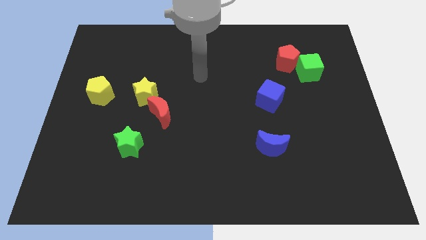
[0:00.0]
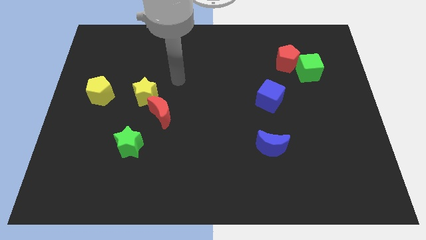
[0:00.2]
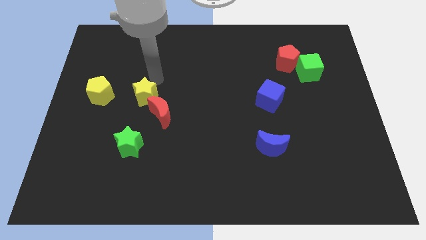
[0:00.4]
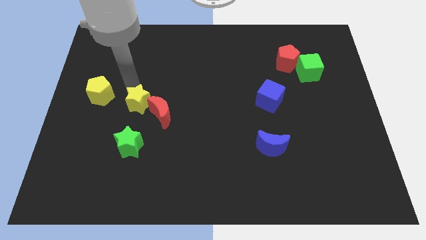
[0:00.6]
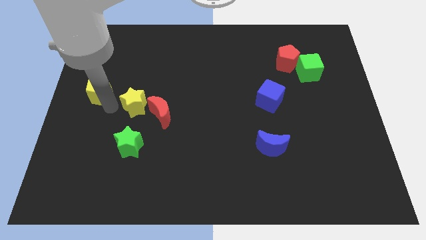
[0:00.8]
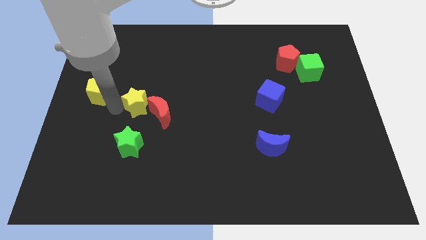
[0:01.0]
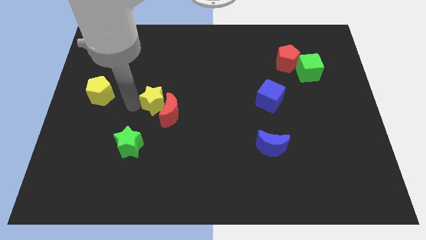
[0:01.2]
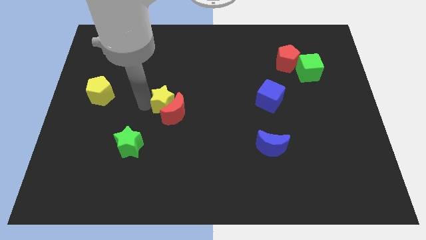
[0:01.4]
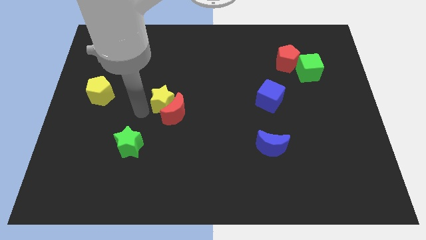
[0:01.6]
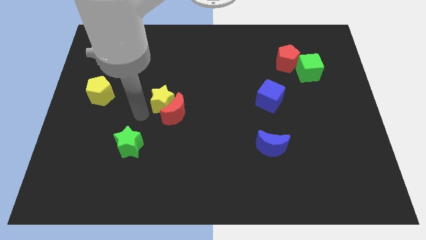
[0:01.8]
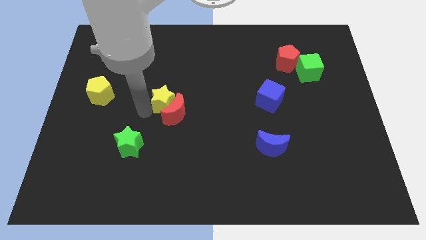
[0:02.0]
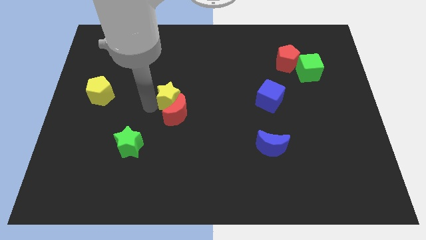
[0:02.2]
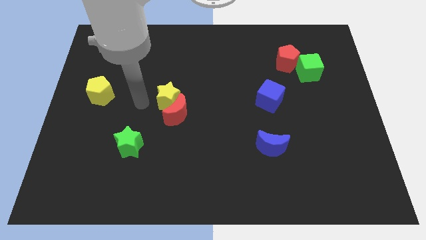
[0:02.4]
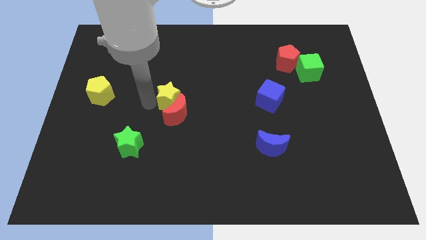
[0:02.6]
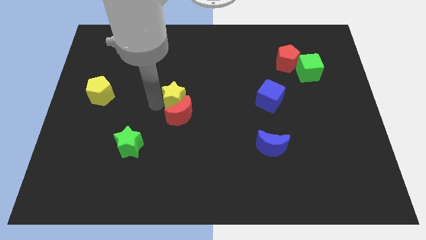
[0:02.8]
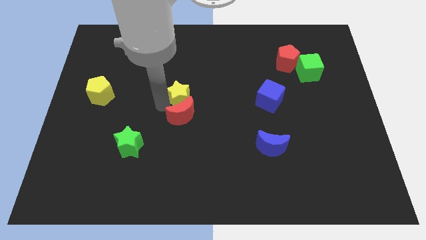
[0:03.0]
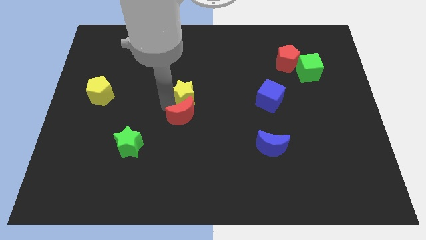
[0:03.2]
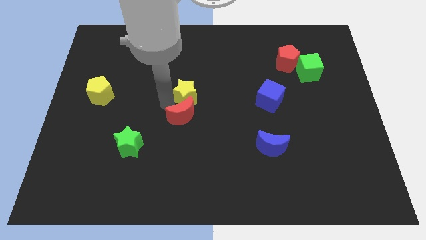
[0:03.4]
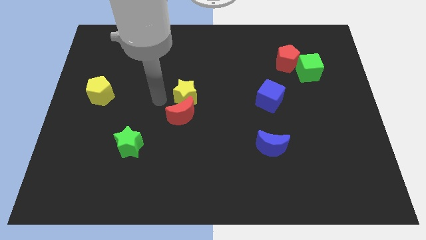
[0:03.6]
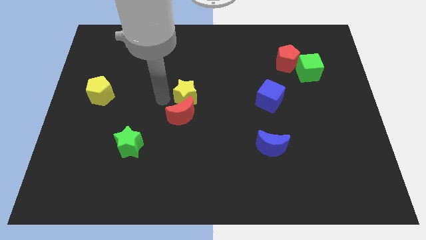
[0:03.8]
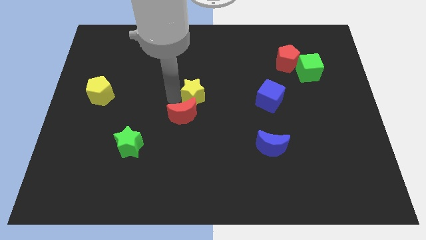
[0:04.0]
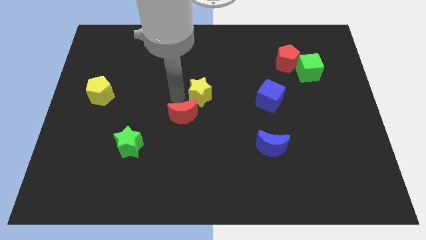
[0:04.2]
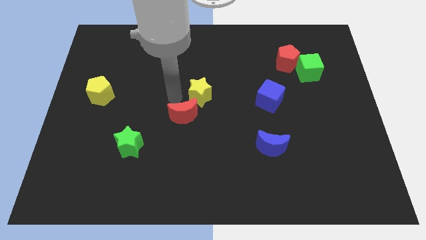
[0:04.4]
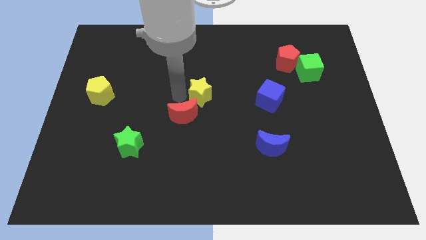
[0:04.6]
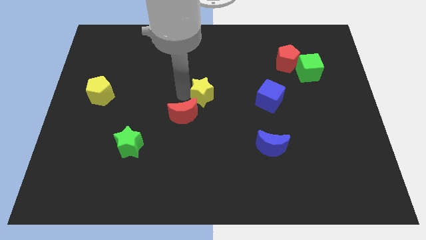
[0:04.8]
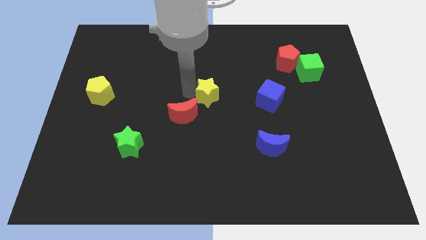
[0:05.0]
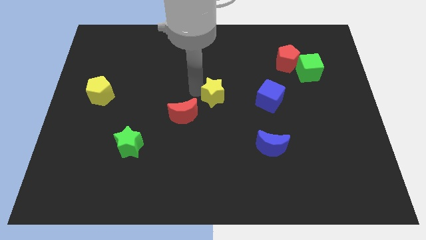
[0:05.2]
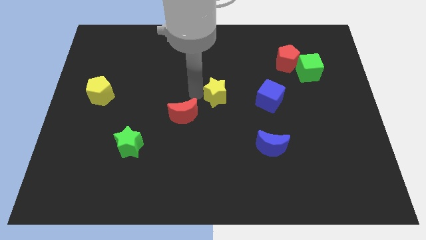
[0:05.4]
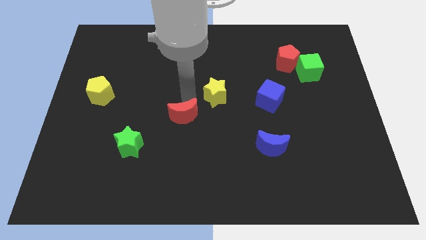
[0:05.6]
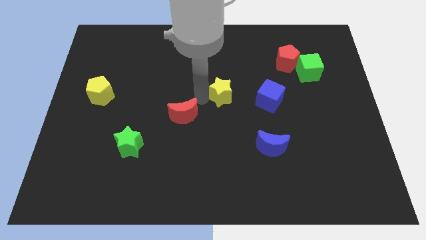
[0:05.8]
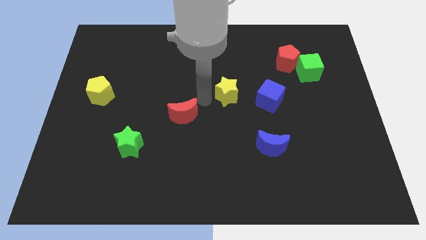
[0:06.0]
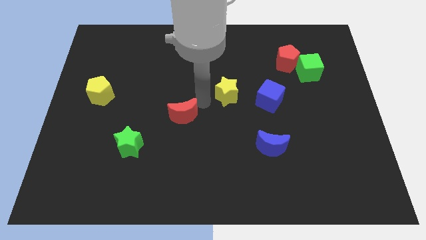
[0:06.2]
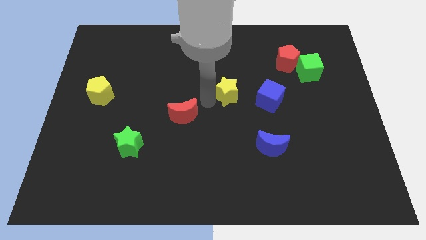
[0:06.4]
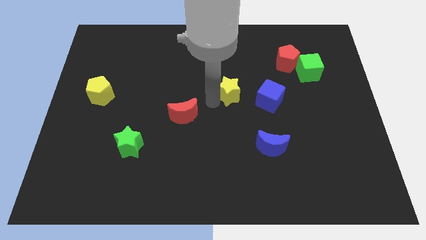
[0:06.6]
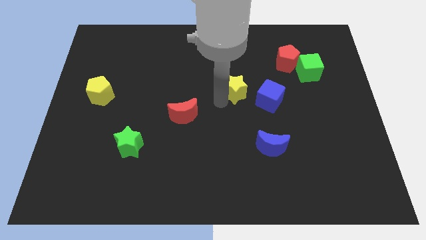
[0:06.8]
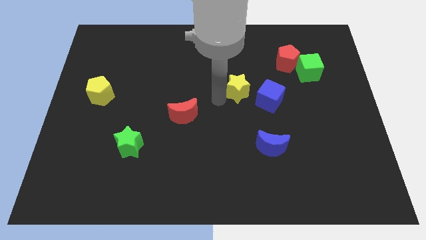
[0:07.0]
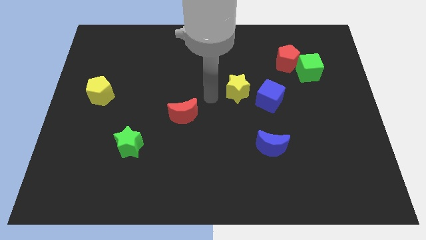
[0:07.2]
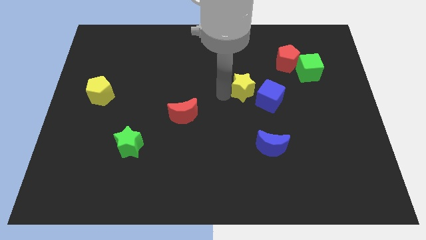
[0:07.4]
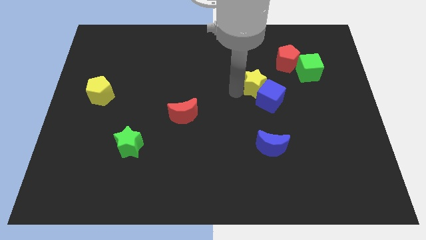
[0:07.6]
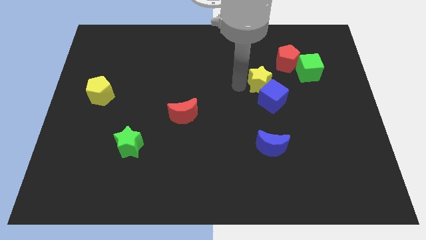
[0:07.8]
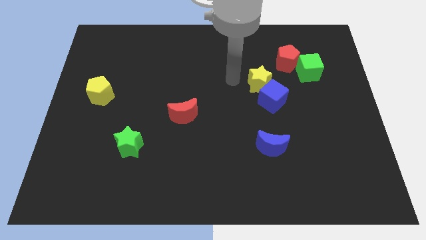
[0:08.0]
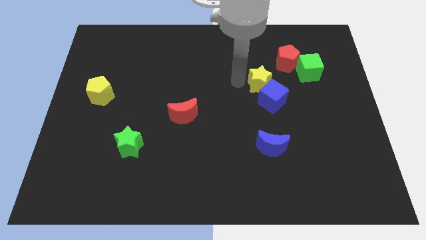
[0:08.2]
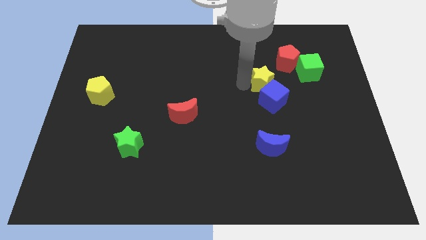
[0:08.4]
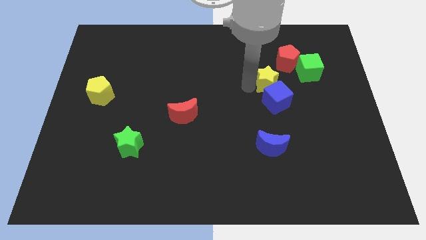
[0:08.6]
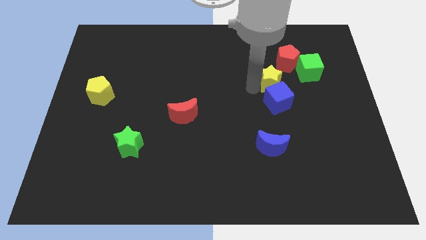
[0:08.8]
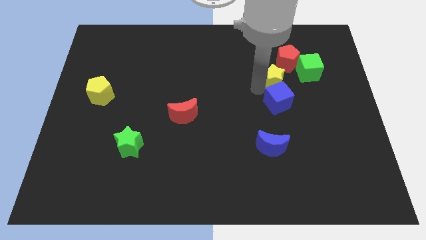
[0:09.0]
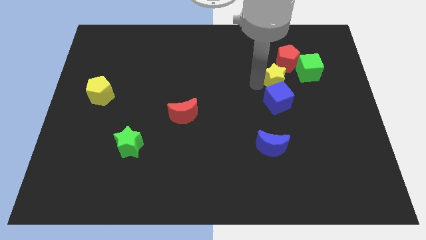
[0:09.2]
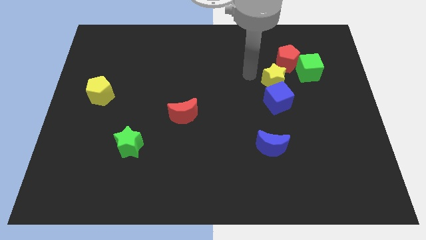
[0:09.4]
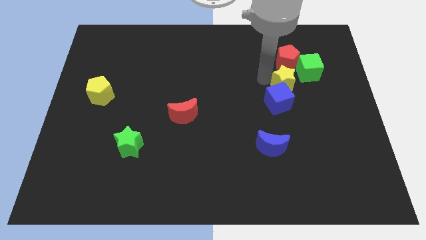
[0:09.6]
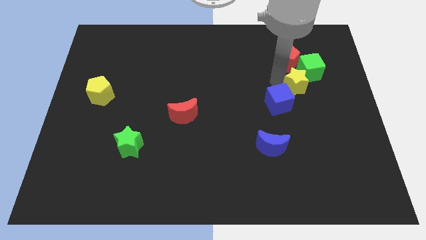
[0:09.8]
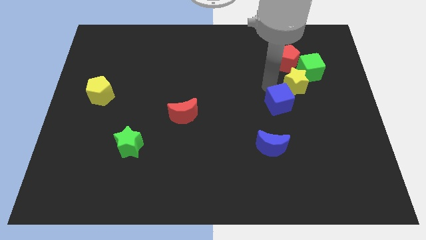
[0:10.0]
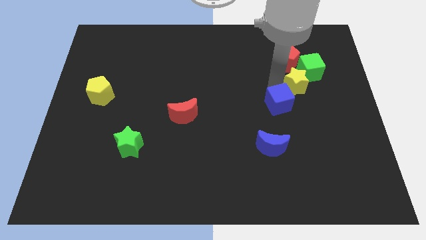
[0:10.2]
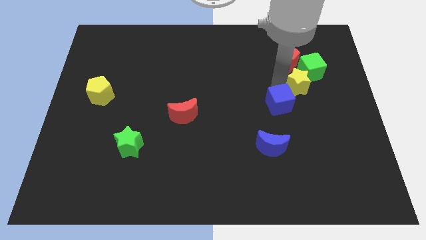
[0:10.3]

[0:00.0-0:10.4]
push the yellow star diagonally down and to the right of the red pentagon

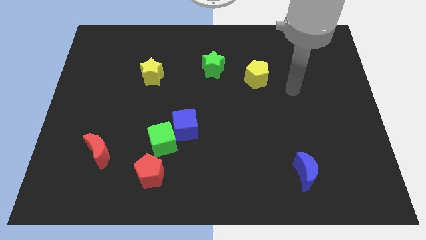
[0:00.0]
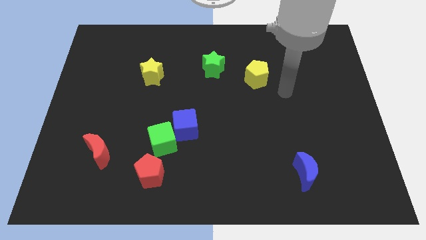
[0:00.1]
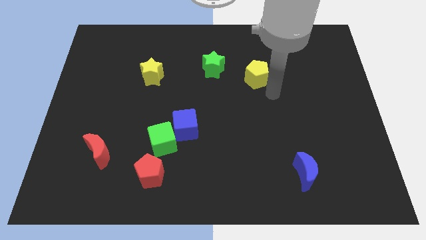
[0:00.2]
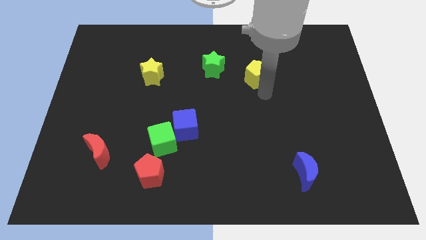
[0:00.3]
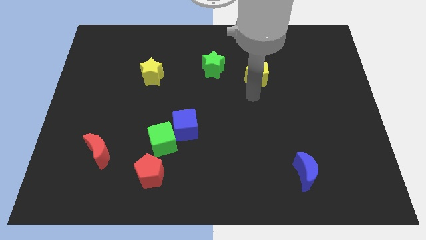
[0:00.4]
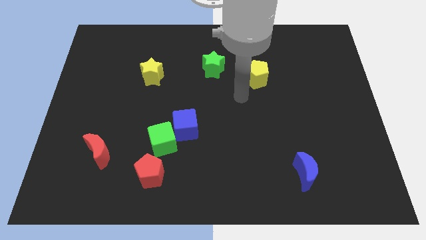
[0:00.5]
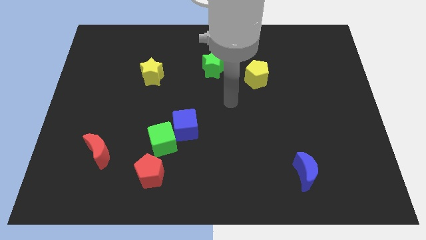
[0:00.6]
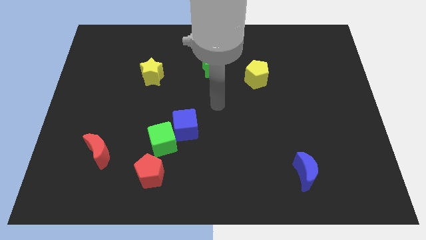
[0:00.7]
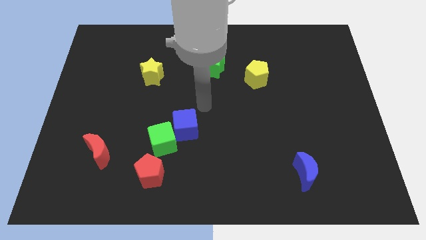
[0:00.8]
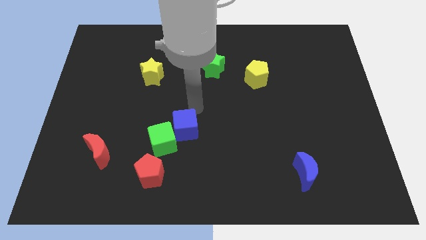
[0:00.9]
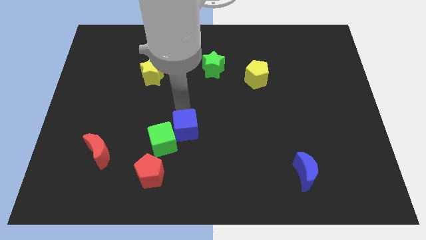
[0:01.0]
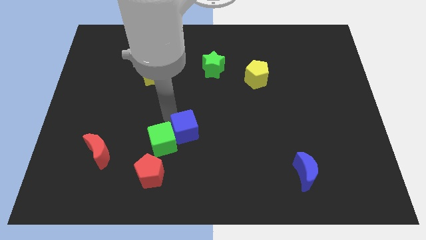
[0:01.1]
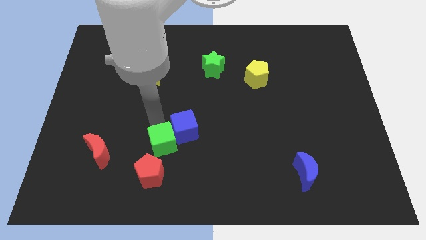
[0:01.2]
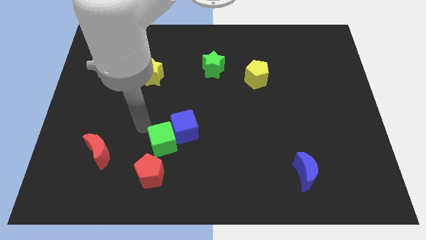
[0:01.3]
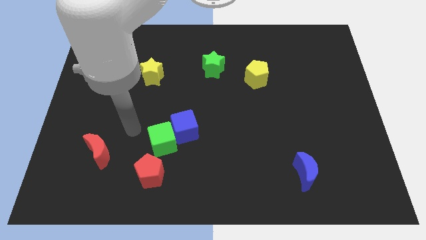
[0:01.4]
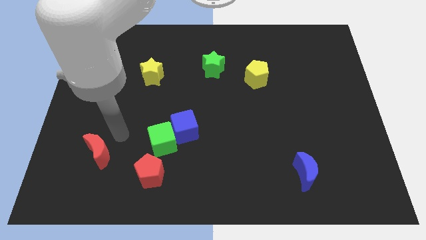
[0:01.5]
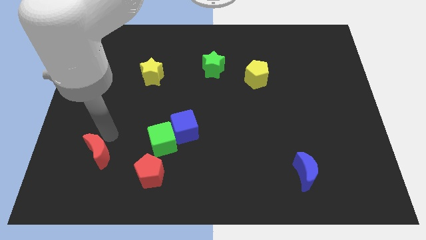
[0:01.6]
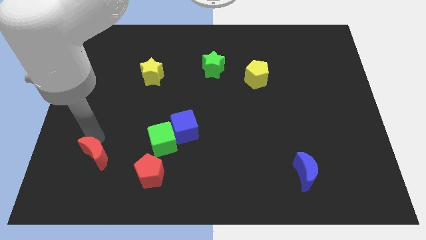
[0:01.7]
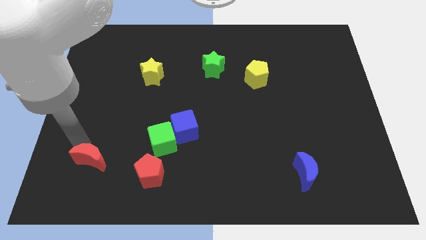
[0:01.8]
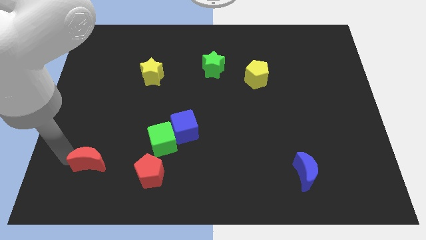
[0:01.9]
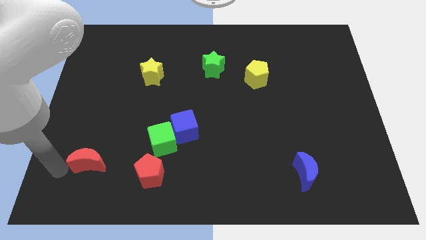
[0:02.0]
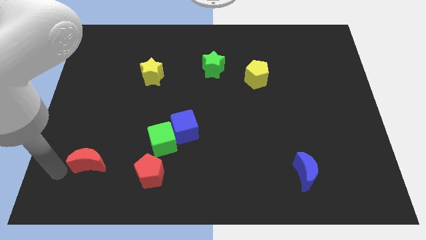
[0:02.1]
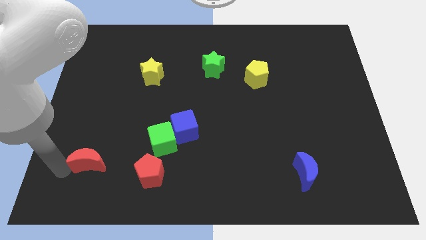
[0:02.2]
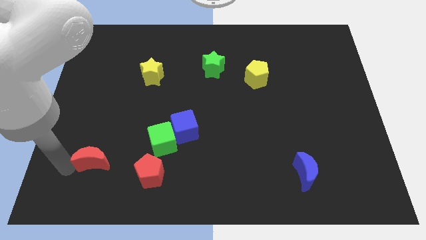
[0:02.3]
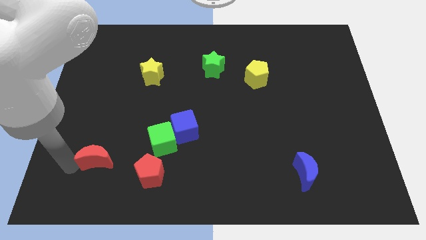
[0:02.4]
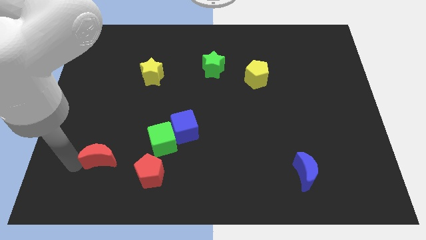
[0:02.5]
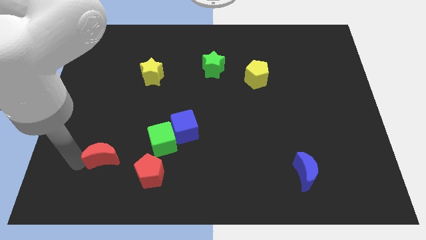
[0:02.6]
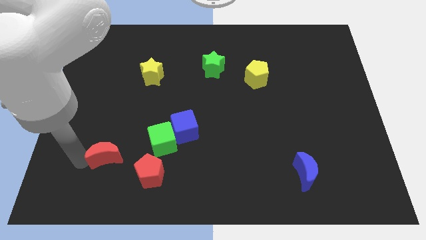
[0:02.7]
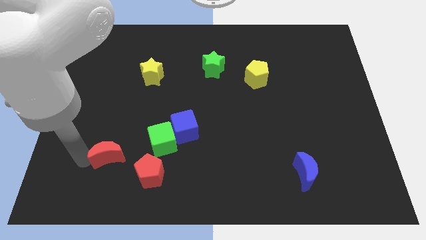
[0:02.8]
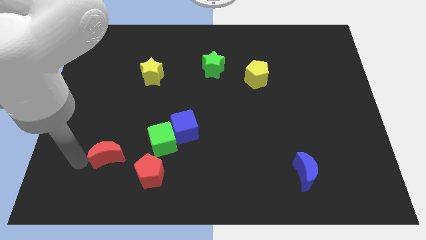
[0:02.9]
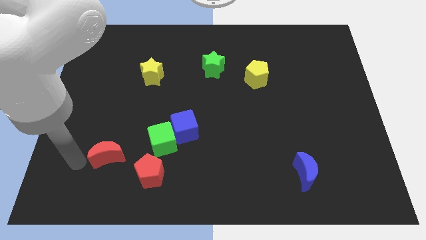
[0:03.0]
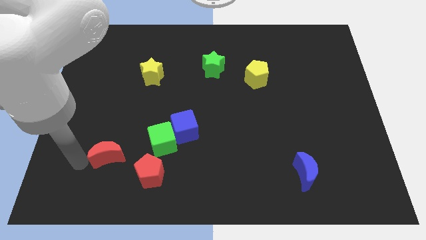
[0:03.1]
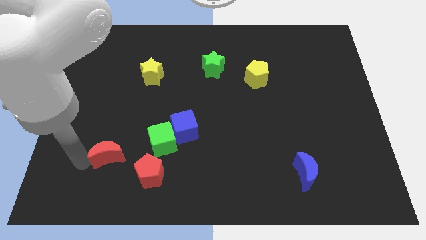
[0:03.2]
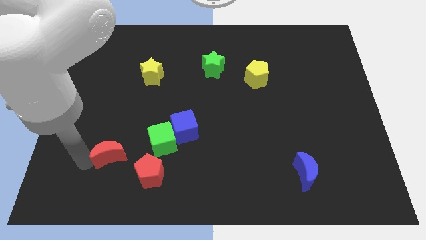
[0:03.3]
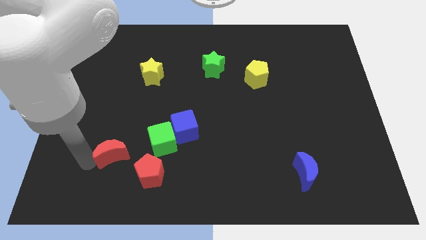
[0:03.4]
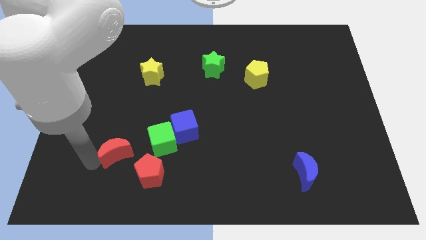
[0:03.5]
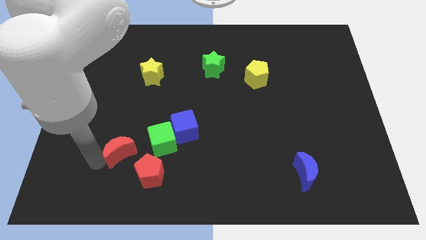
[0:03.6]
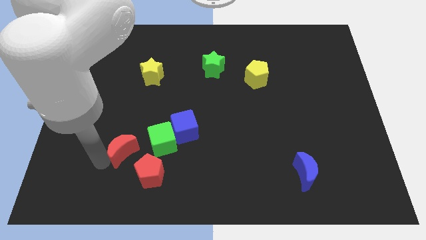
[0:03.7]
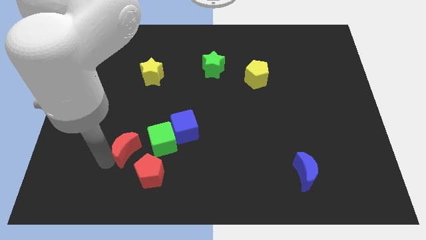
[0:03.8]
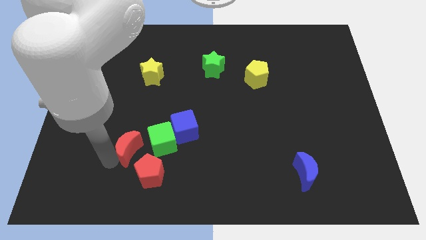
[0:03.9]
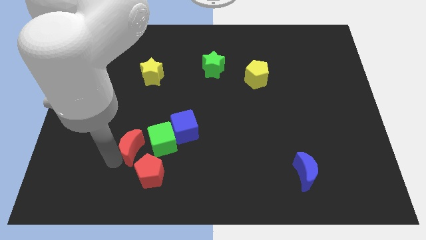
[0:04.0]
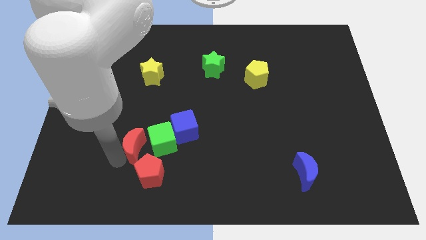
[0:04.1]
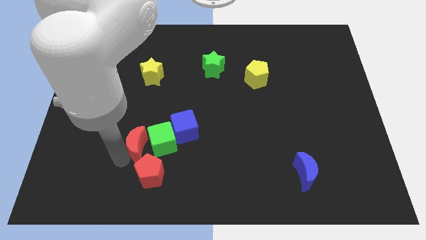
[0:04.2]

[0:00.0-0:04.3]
put the red moon to the bottom left of the blue cube
